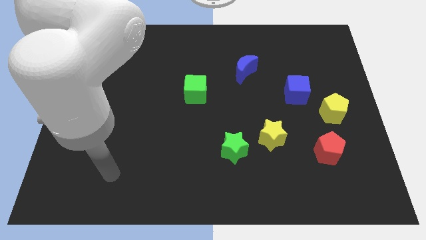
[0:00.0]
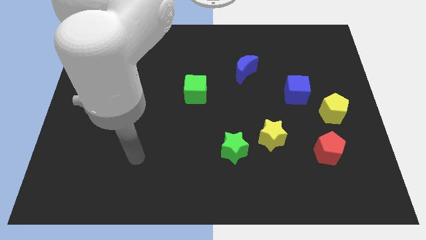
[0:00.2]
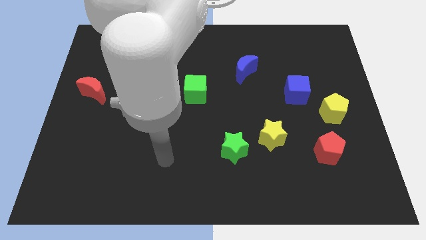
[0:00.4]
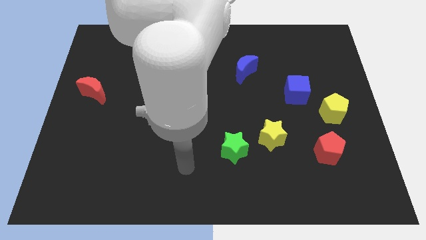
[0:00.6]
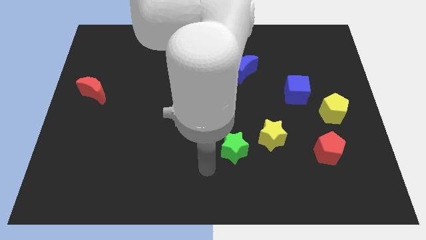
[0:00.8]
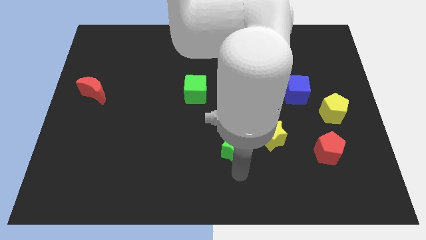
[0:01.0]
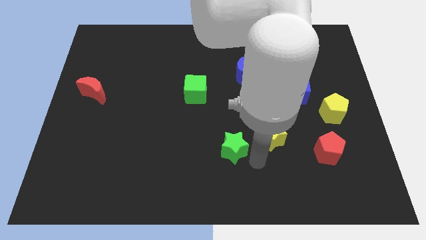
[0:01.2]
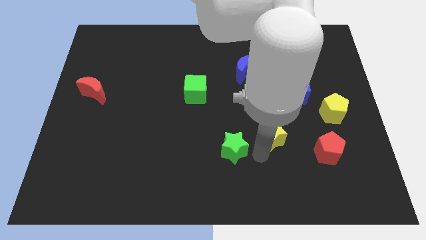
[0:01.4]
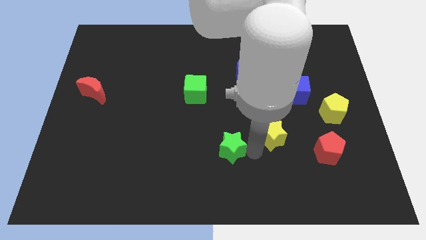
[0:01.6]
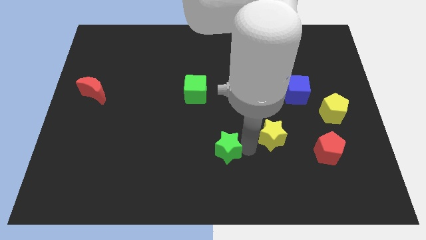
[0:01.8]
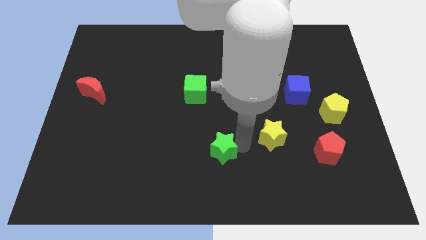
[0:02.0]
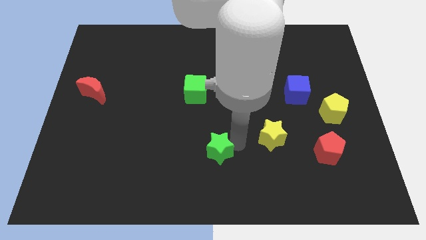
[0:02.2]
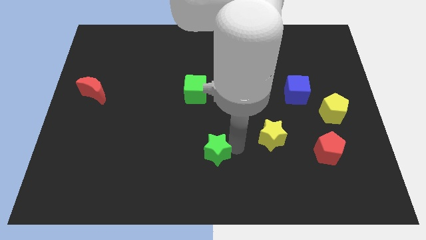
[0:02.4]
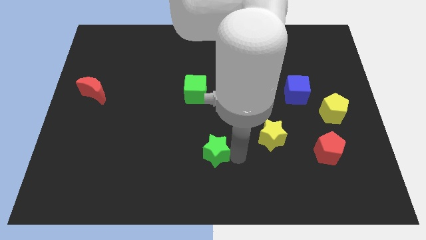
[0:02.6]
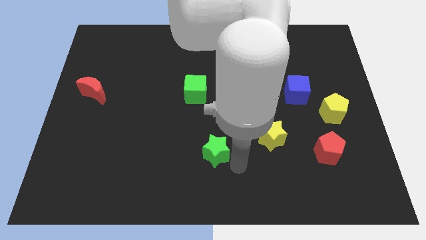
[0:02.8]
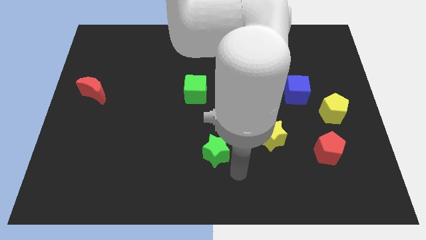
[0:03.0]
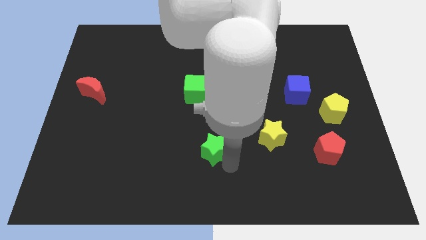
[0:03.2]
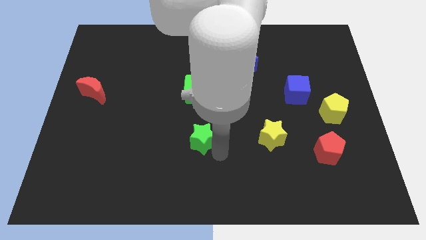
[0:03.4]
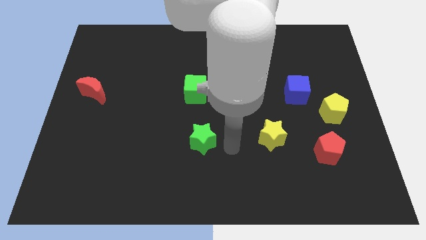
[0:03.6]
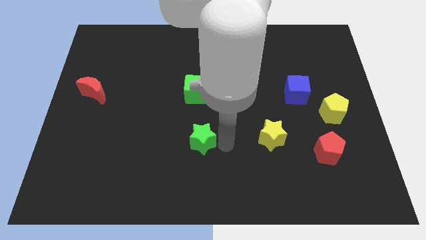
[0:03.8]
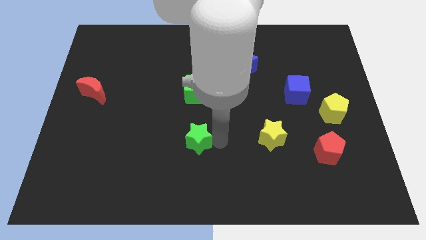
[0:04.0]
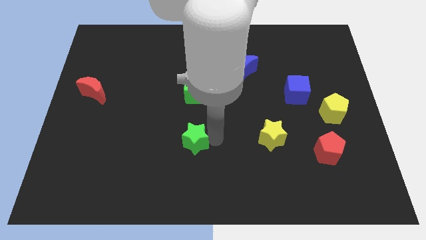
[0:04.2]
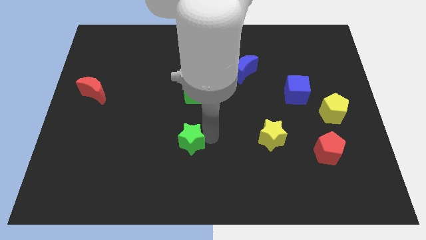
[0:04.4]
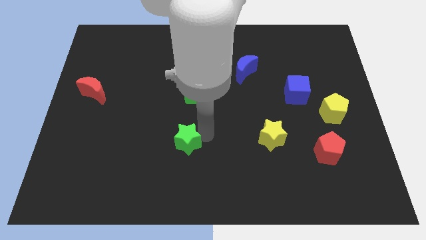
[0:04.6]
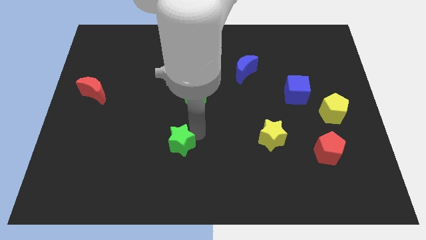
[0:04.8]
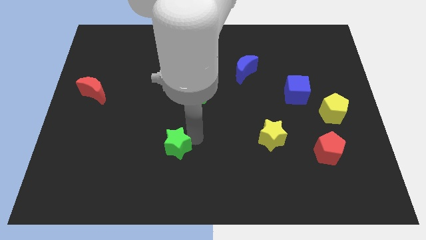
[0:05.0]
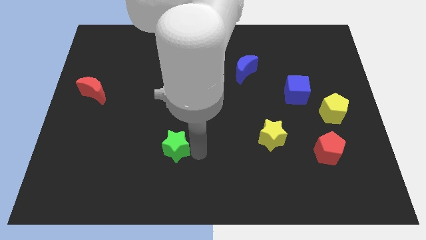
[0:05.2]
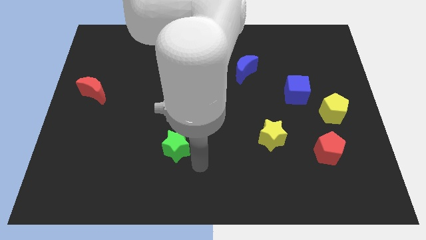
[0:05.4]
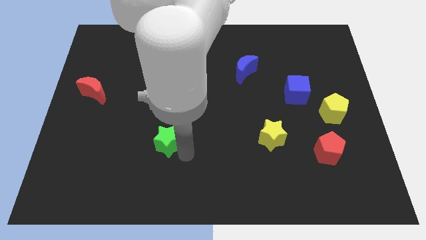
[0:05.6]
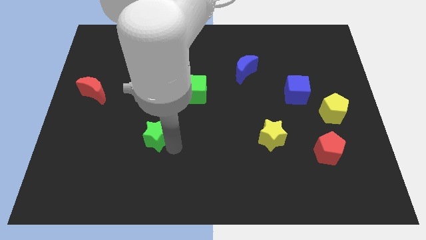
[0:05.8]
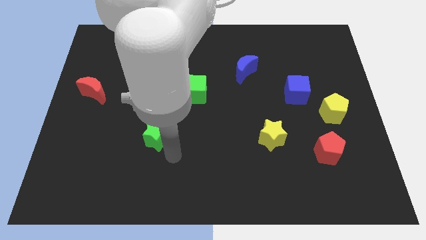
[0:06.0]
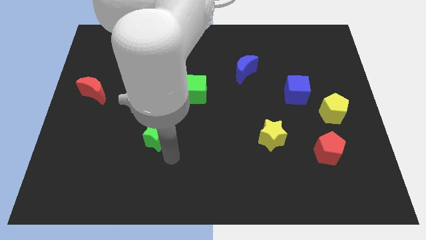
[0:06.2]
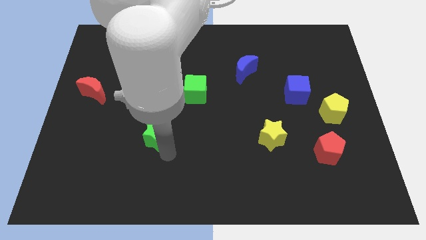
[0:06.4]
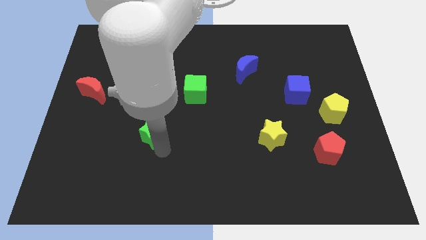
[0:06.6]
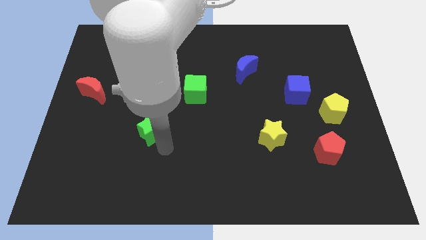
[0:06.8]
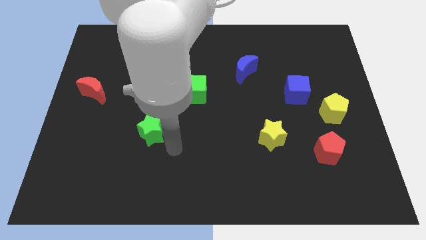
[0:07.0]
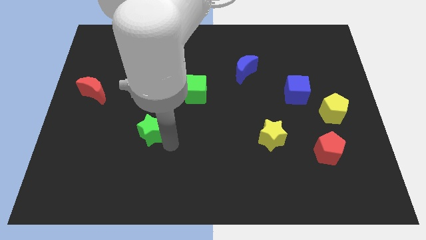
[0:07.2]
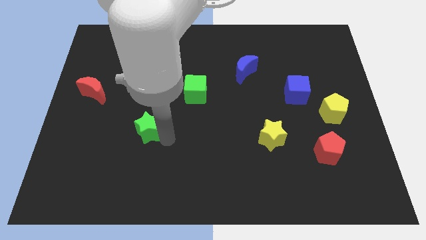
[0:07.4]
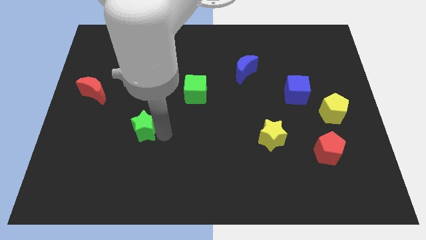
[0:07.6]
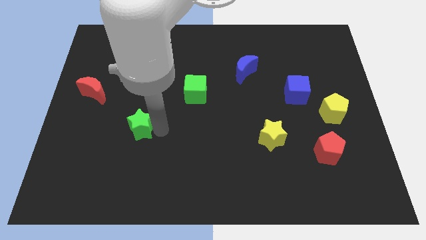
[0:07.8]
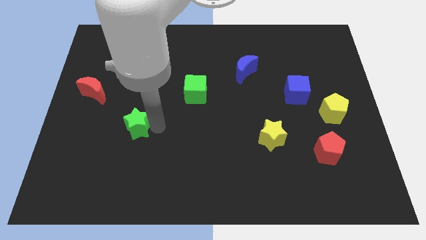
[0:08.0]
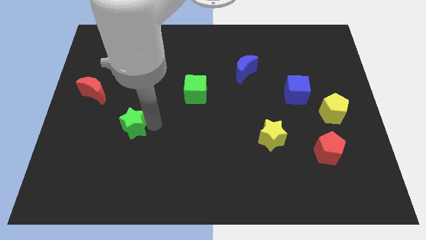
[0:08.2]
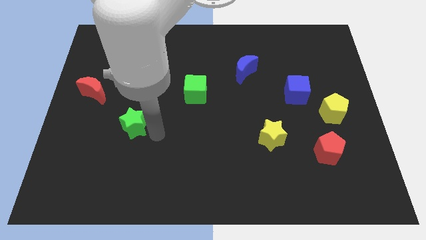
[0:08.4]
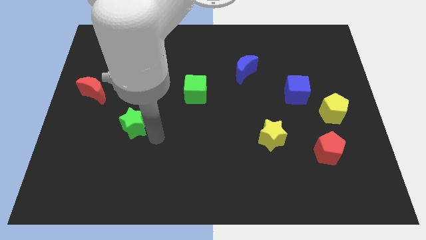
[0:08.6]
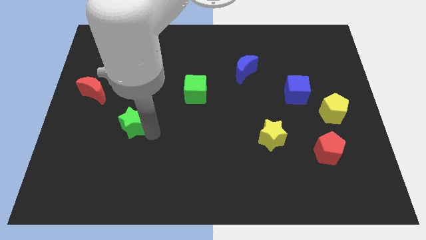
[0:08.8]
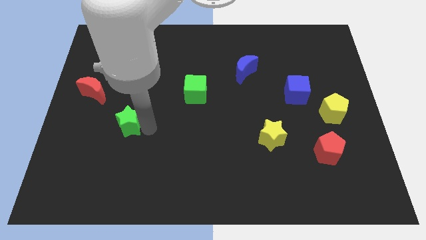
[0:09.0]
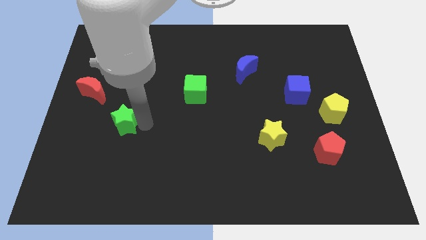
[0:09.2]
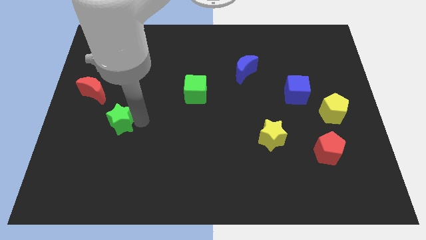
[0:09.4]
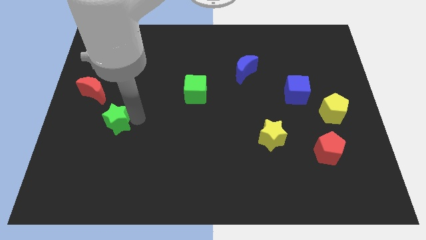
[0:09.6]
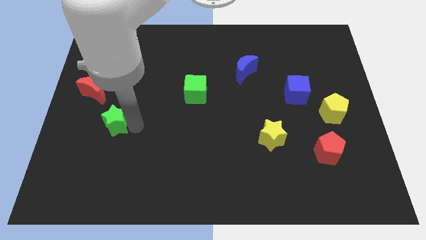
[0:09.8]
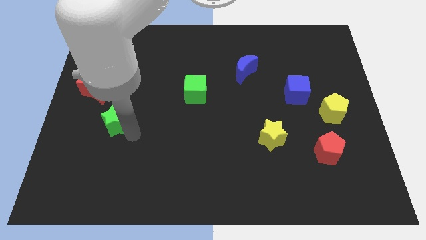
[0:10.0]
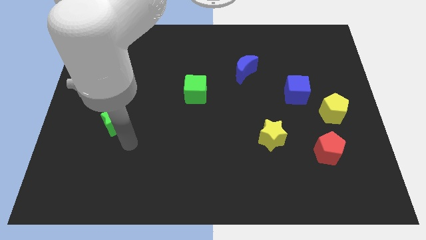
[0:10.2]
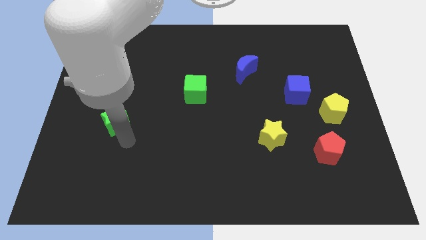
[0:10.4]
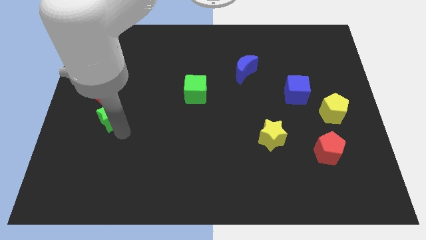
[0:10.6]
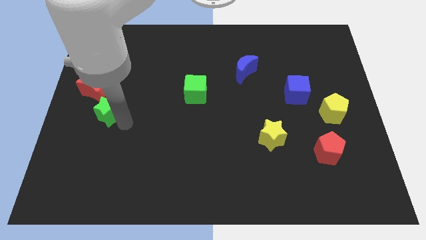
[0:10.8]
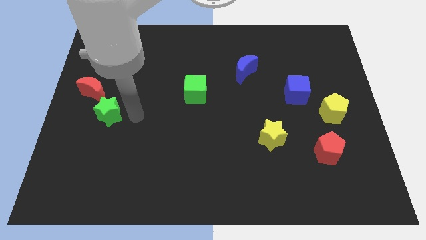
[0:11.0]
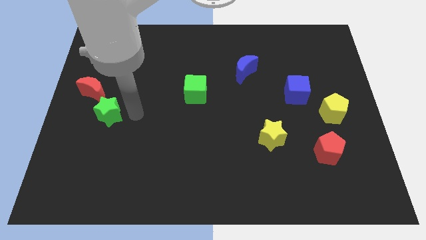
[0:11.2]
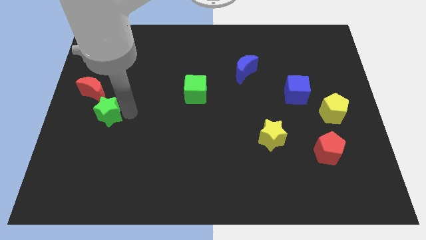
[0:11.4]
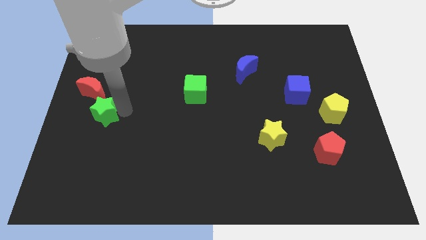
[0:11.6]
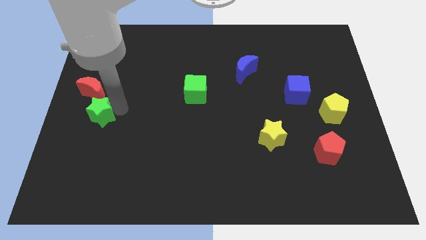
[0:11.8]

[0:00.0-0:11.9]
push the green star to the center left
